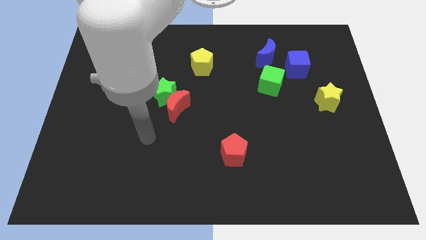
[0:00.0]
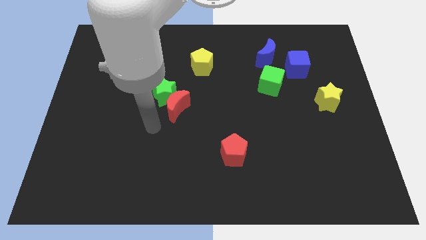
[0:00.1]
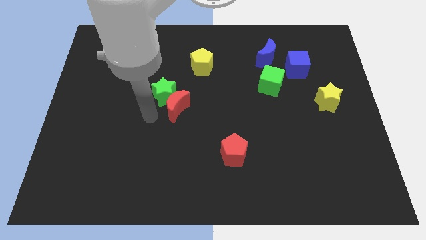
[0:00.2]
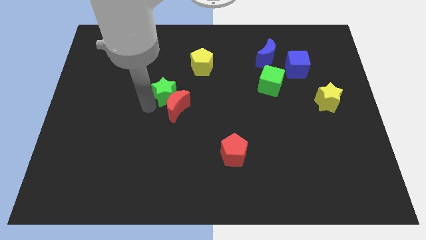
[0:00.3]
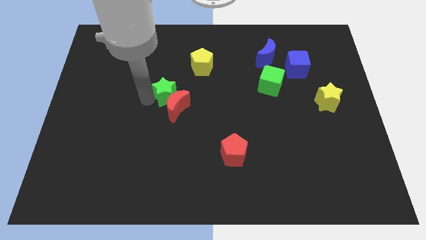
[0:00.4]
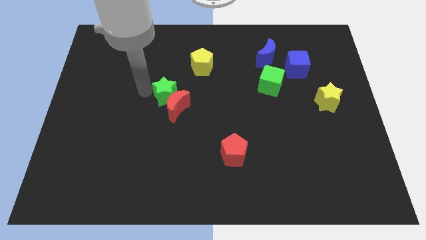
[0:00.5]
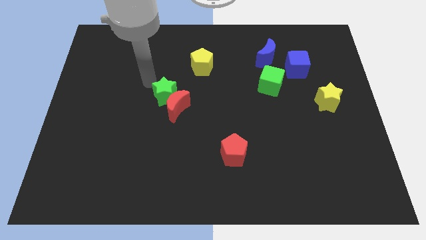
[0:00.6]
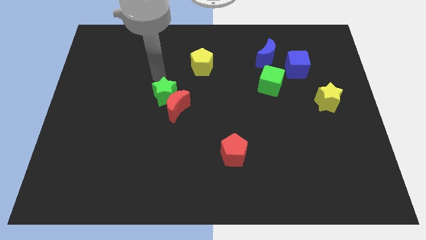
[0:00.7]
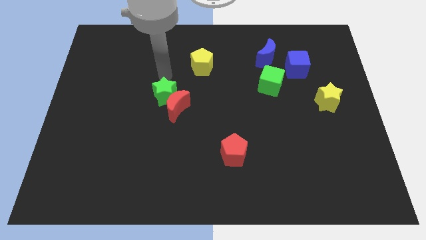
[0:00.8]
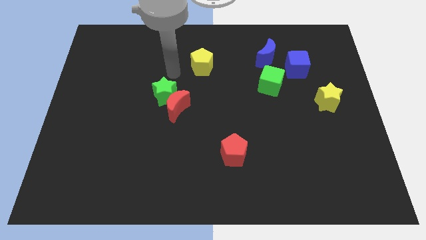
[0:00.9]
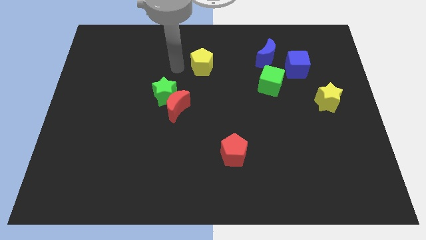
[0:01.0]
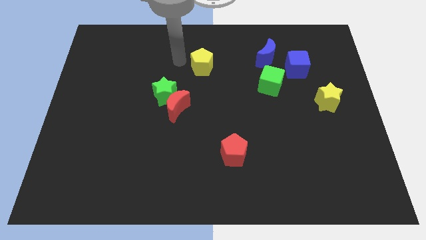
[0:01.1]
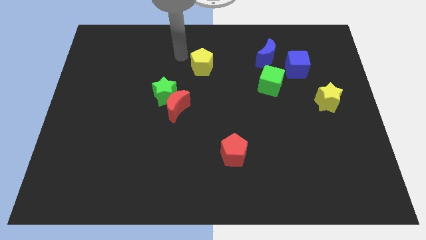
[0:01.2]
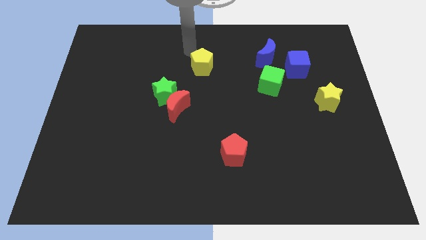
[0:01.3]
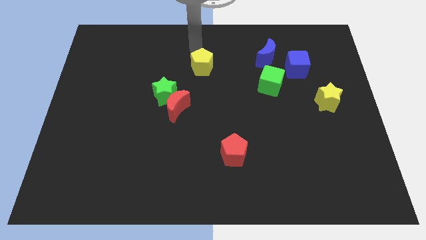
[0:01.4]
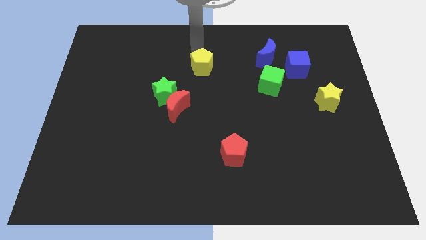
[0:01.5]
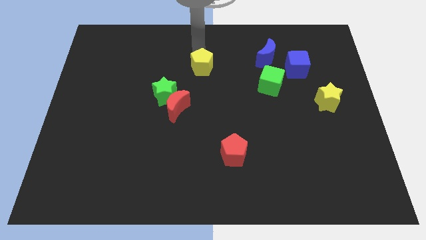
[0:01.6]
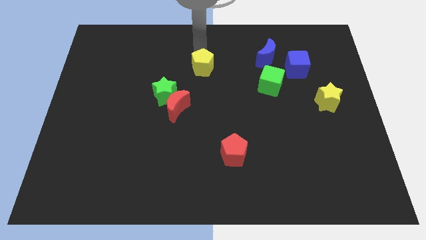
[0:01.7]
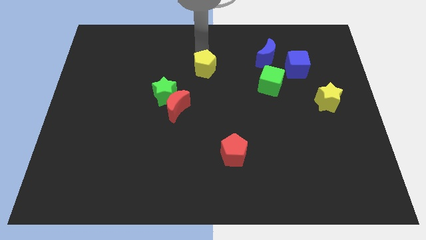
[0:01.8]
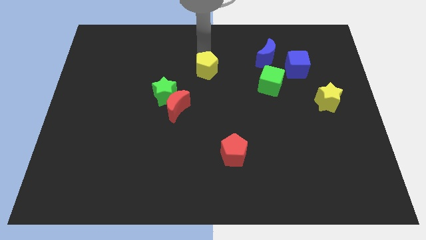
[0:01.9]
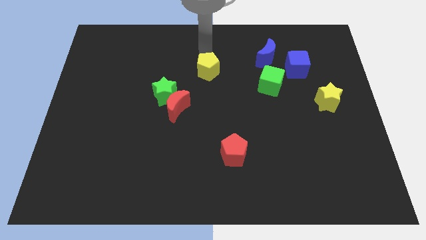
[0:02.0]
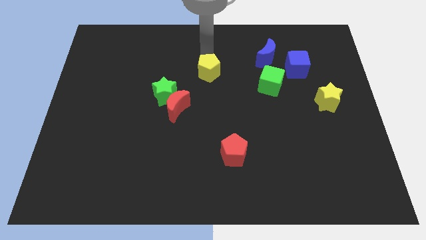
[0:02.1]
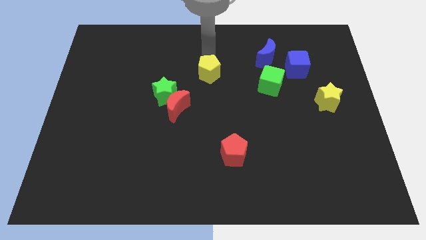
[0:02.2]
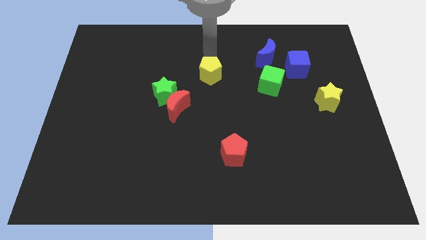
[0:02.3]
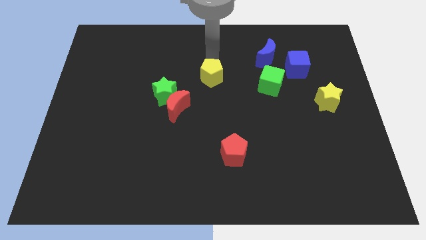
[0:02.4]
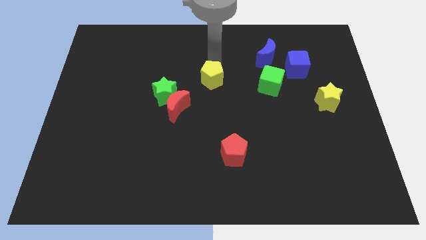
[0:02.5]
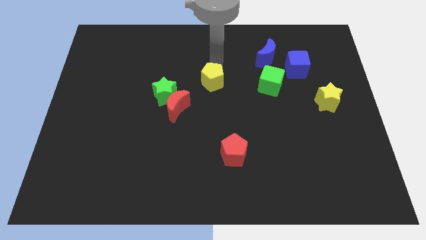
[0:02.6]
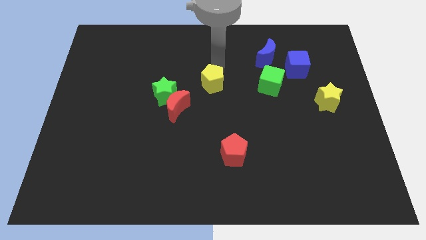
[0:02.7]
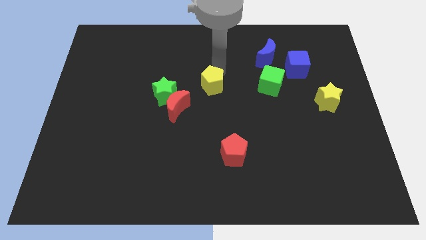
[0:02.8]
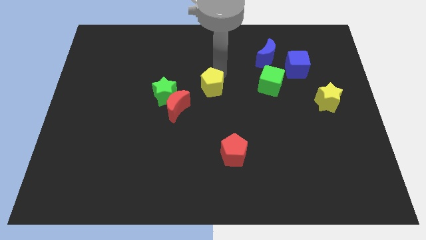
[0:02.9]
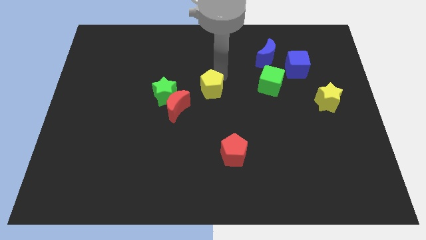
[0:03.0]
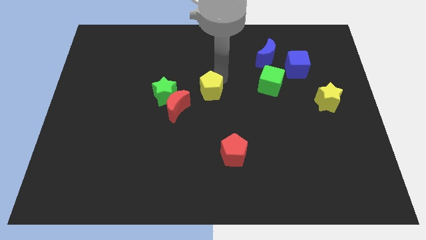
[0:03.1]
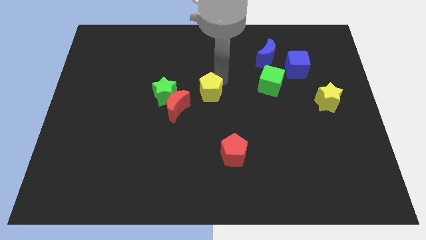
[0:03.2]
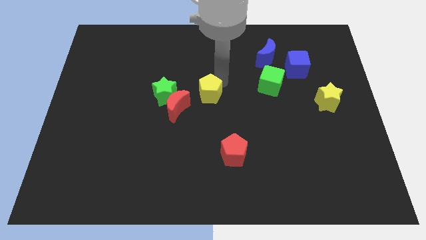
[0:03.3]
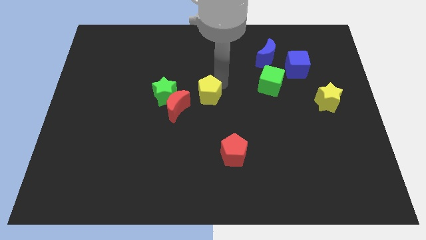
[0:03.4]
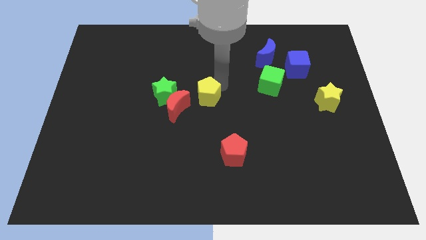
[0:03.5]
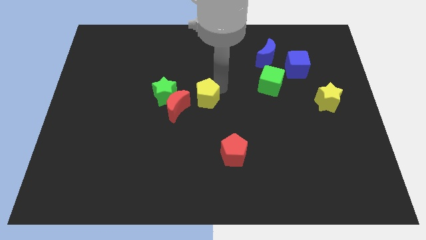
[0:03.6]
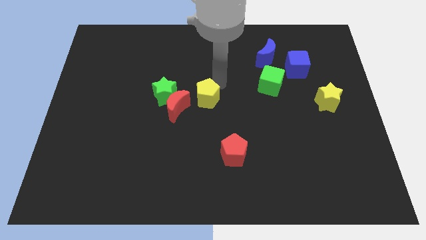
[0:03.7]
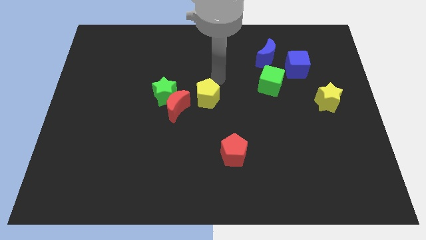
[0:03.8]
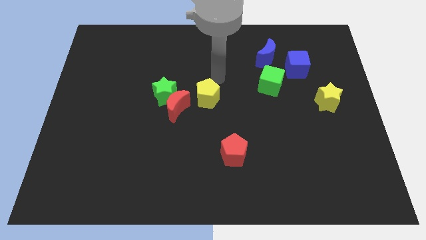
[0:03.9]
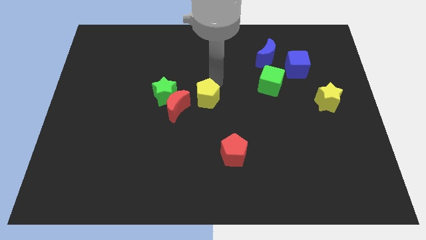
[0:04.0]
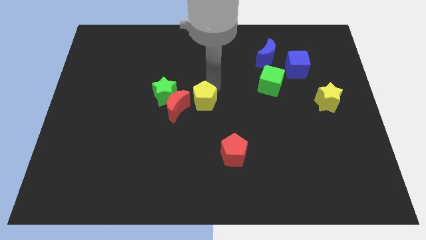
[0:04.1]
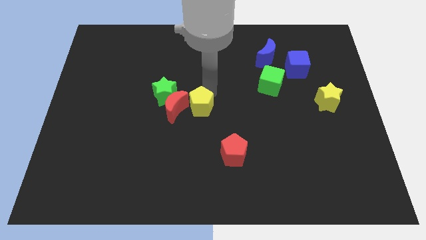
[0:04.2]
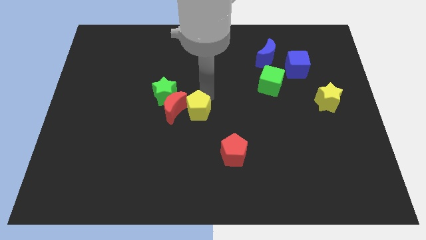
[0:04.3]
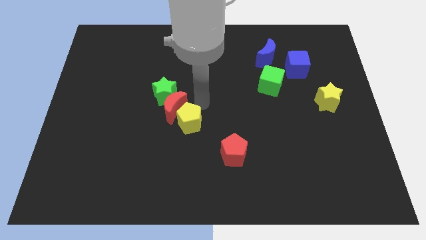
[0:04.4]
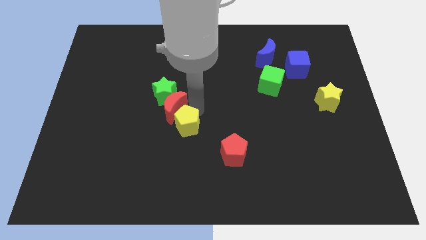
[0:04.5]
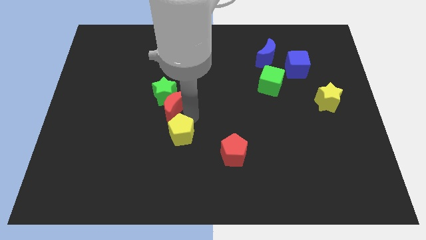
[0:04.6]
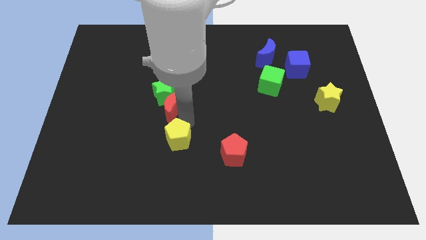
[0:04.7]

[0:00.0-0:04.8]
slide the yellow pentagon left of the red pentagon

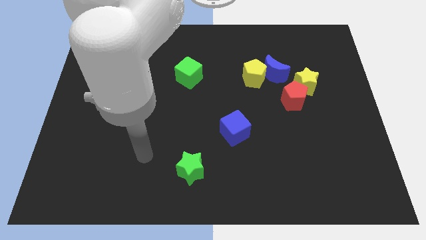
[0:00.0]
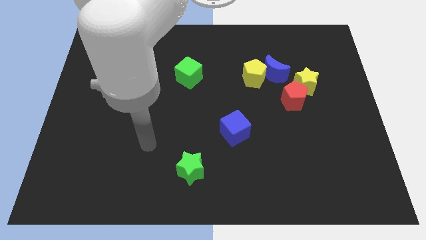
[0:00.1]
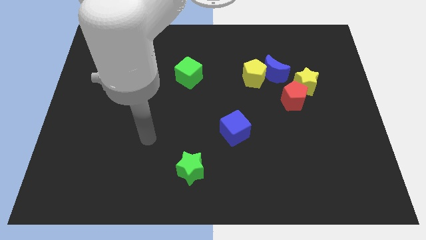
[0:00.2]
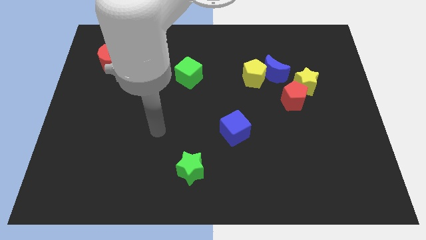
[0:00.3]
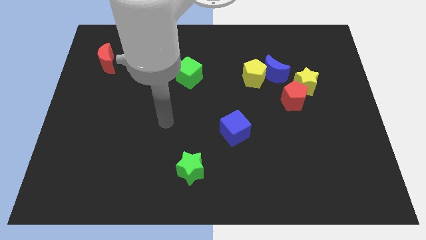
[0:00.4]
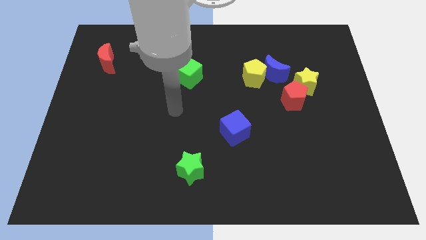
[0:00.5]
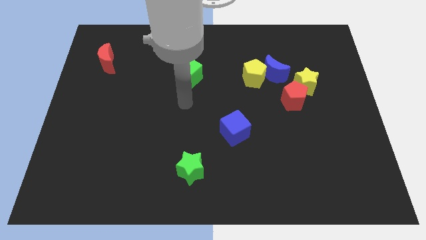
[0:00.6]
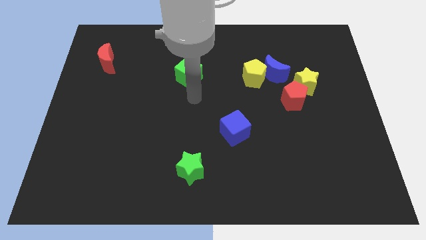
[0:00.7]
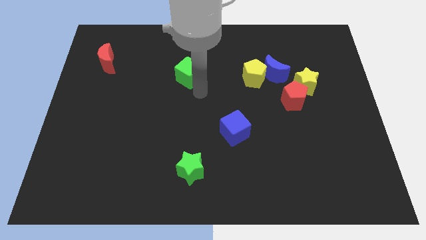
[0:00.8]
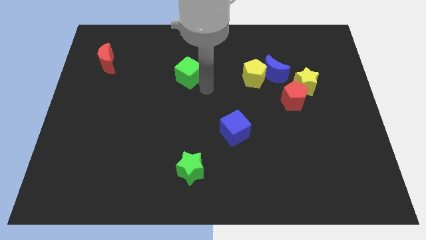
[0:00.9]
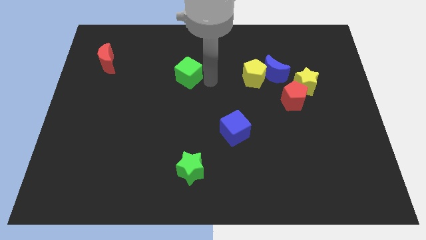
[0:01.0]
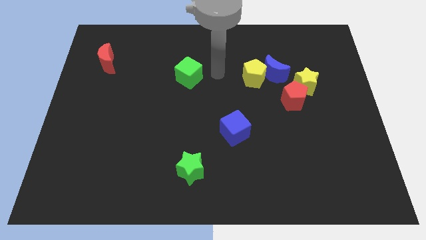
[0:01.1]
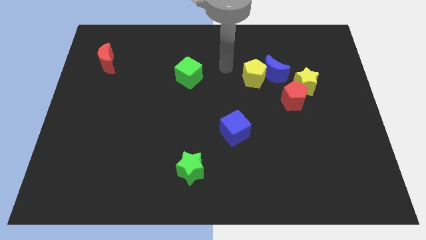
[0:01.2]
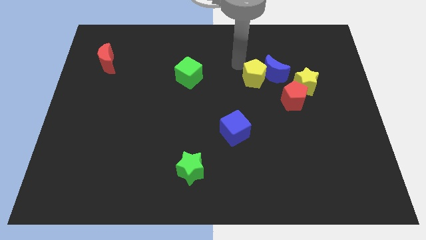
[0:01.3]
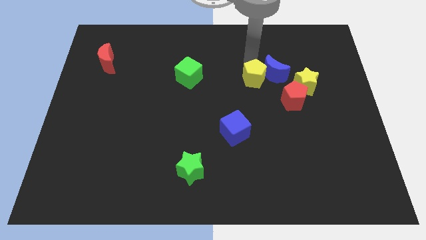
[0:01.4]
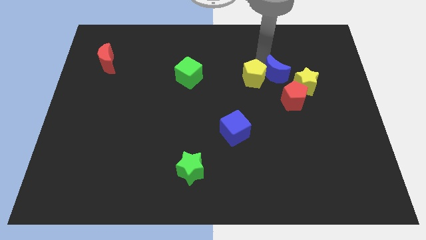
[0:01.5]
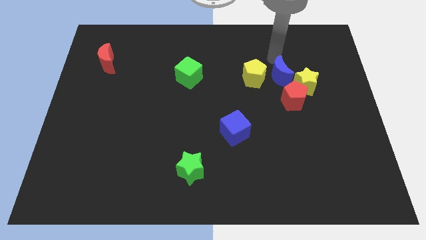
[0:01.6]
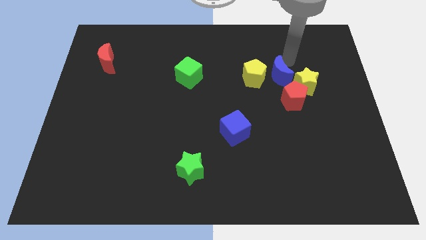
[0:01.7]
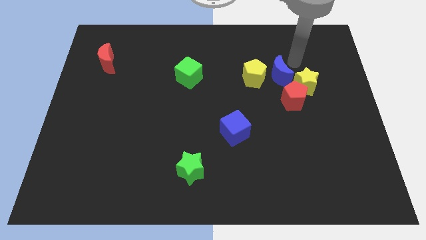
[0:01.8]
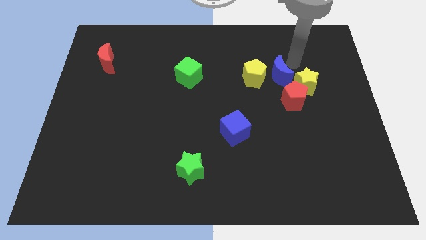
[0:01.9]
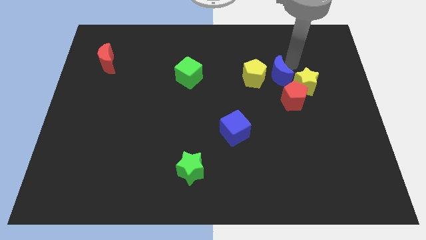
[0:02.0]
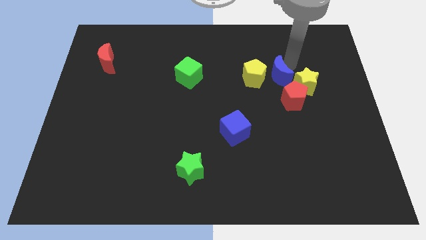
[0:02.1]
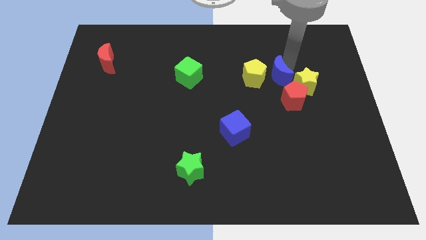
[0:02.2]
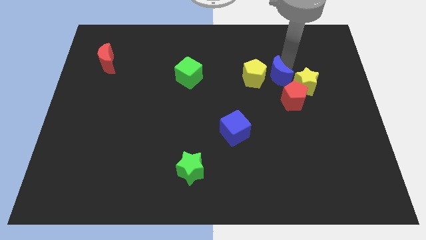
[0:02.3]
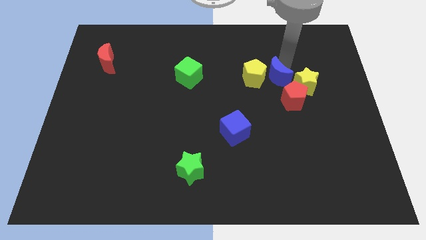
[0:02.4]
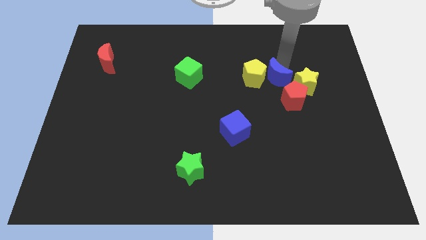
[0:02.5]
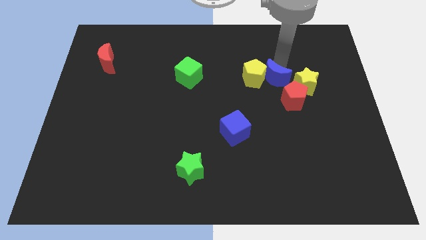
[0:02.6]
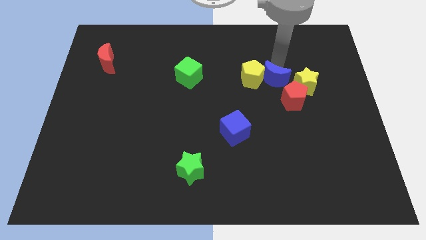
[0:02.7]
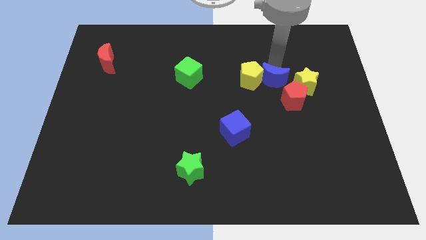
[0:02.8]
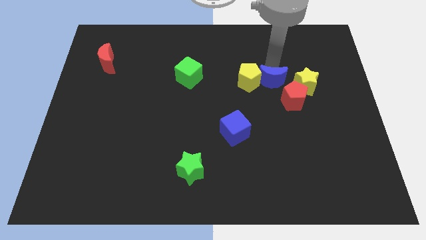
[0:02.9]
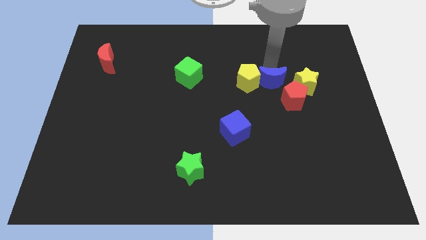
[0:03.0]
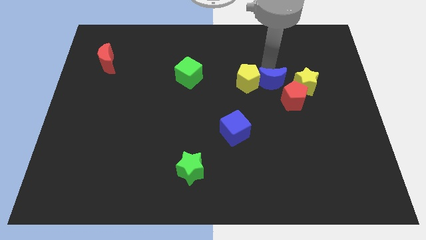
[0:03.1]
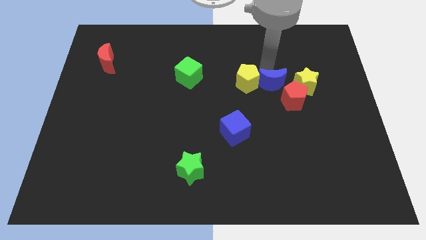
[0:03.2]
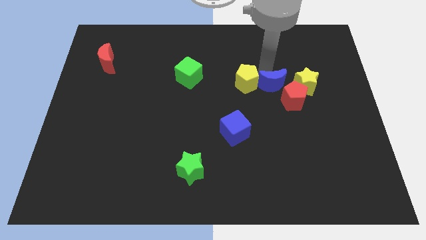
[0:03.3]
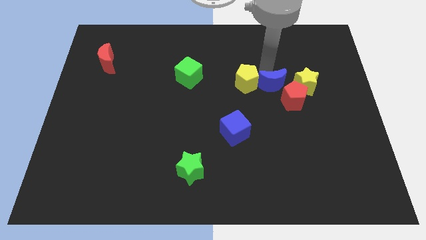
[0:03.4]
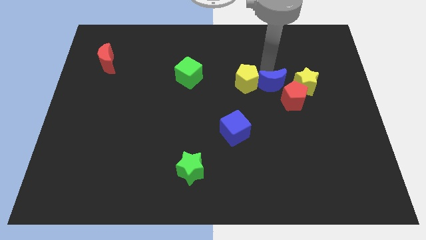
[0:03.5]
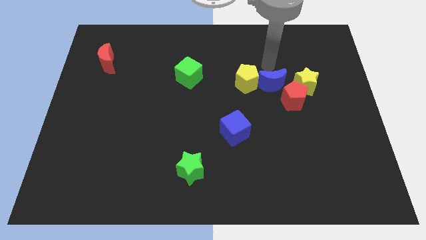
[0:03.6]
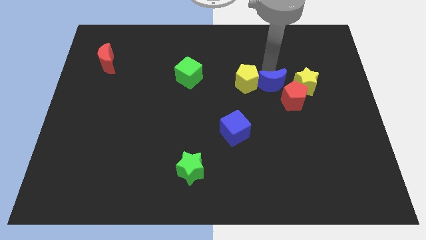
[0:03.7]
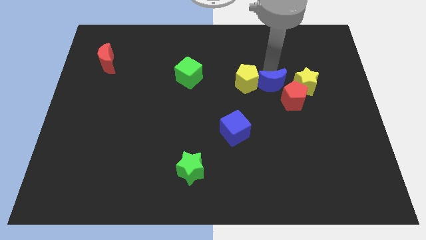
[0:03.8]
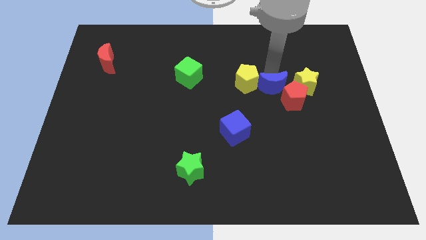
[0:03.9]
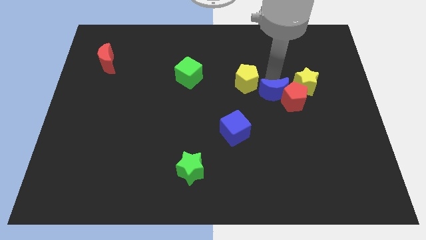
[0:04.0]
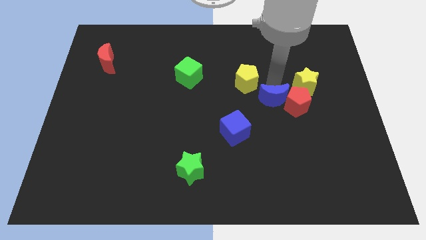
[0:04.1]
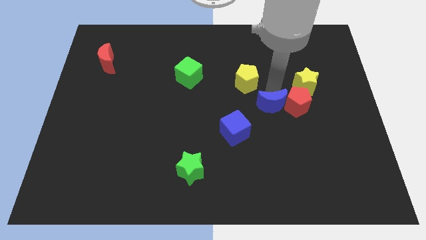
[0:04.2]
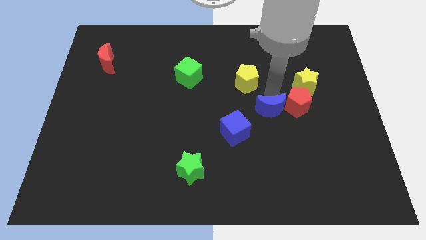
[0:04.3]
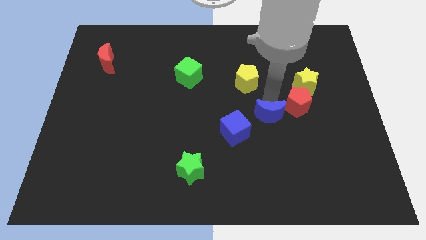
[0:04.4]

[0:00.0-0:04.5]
put the blue moon right of the blue cube
